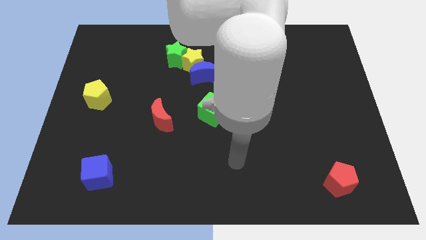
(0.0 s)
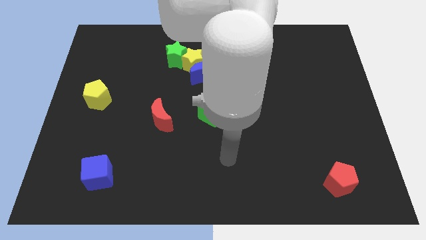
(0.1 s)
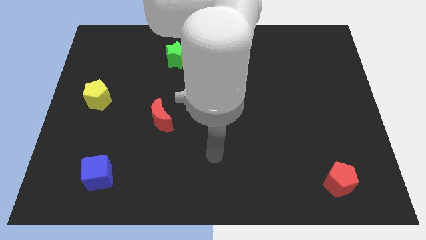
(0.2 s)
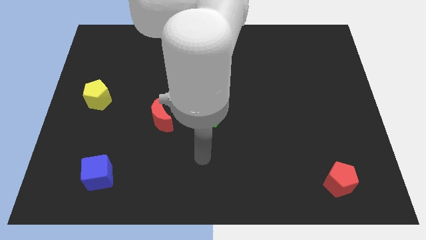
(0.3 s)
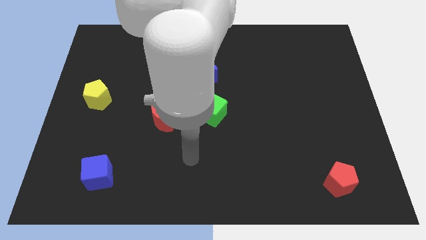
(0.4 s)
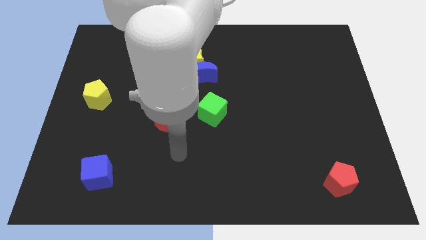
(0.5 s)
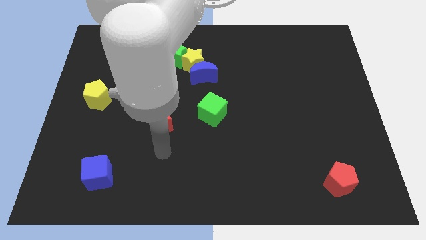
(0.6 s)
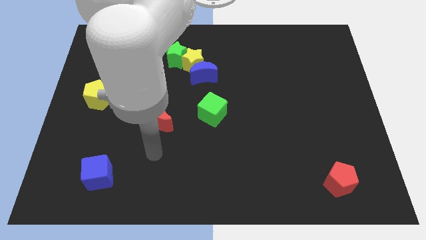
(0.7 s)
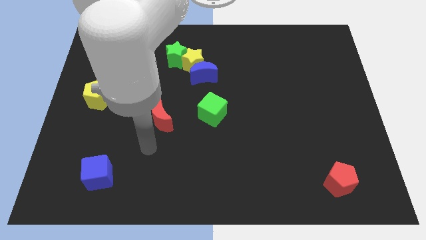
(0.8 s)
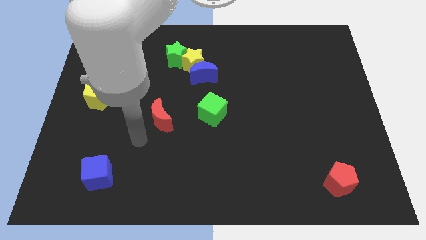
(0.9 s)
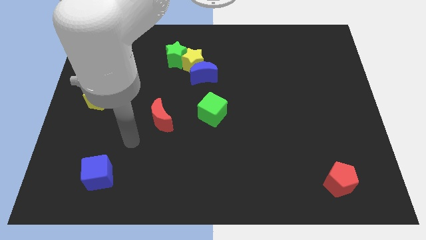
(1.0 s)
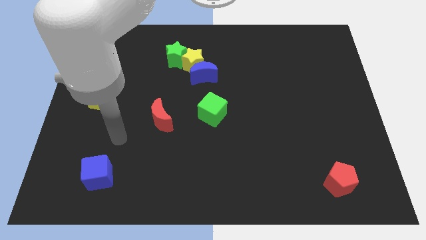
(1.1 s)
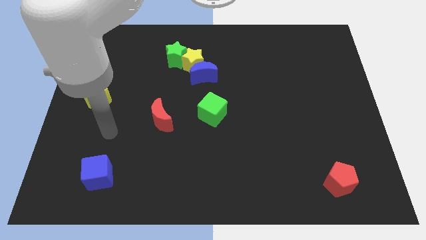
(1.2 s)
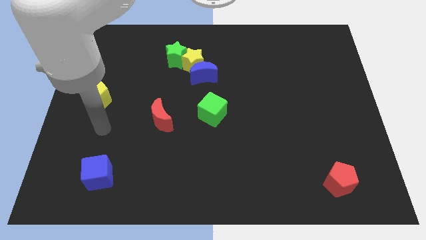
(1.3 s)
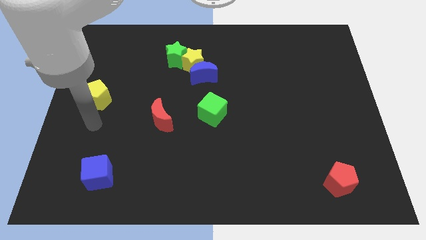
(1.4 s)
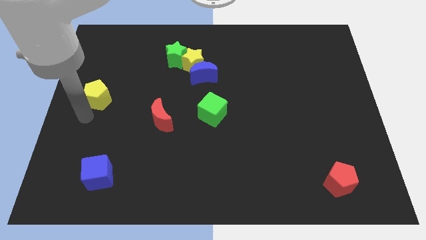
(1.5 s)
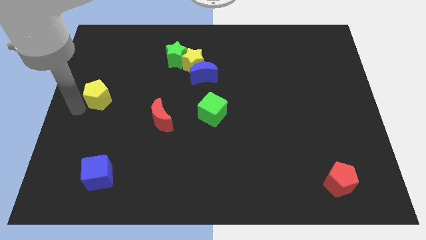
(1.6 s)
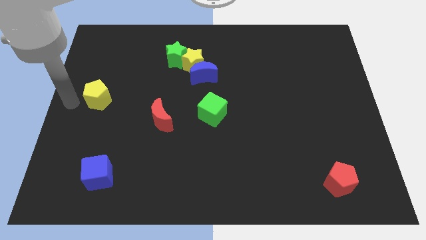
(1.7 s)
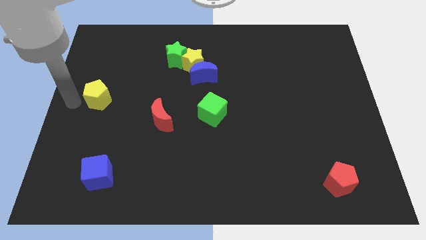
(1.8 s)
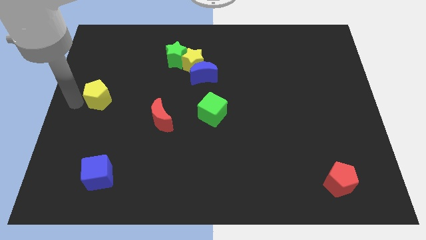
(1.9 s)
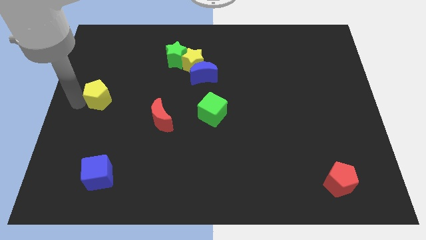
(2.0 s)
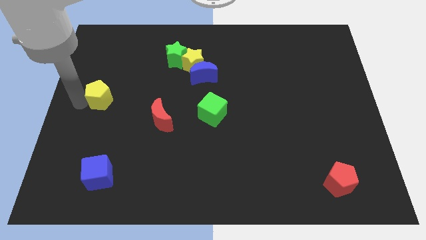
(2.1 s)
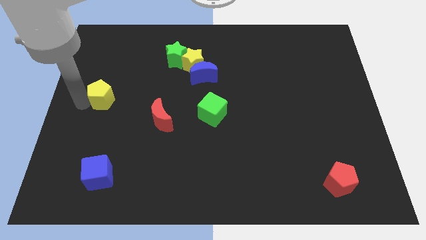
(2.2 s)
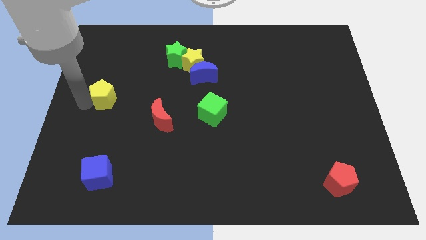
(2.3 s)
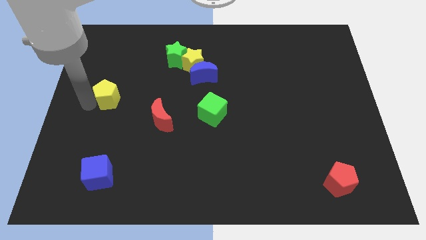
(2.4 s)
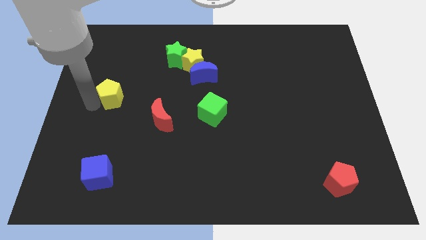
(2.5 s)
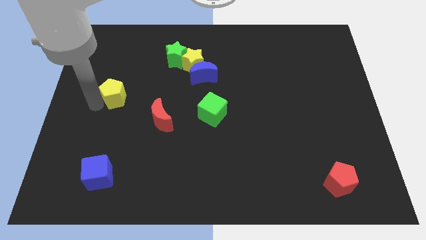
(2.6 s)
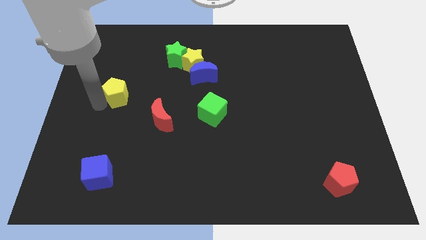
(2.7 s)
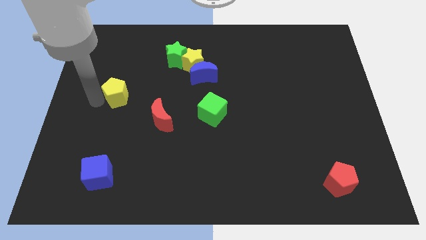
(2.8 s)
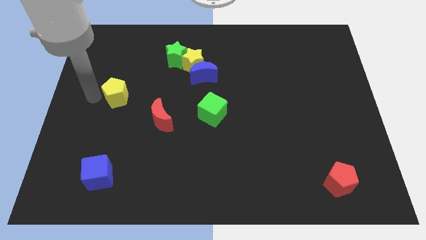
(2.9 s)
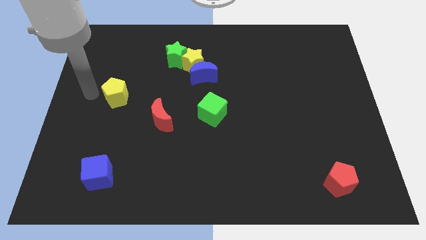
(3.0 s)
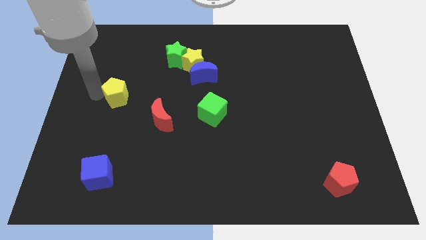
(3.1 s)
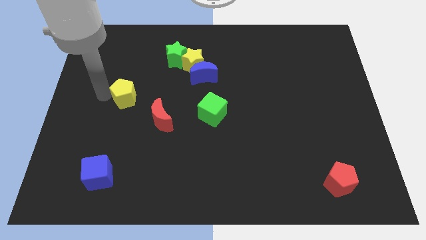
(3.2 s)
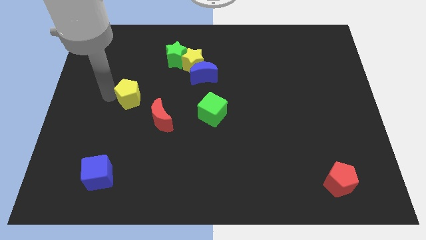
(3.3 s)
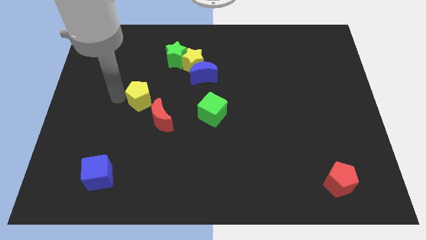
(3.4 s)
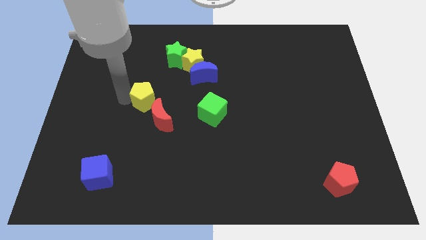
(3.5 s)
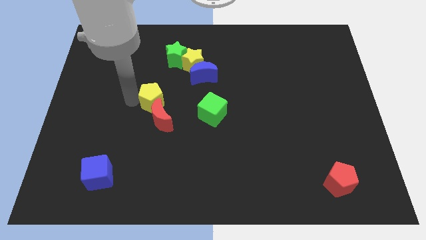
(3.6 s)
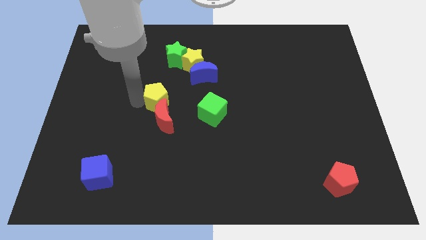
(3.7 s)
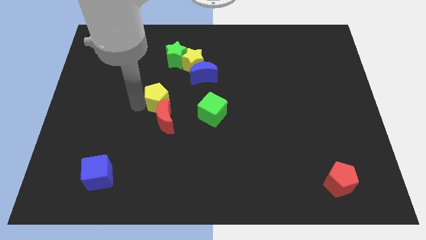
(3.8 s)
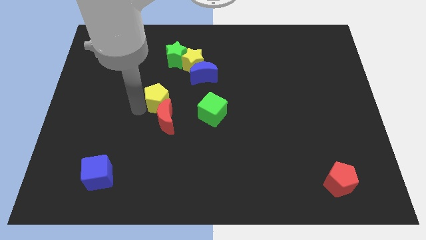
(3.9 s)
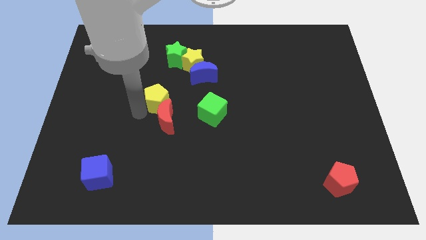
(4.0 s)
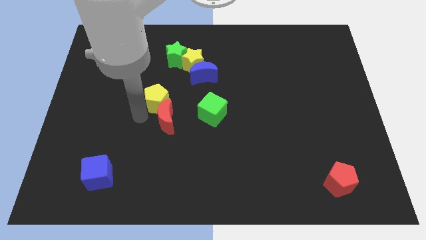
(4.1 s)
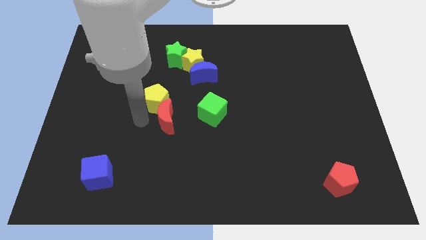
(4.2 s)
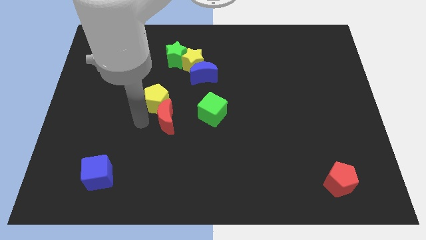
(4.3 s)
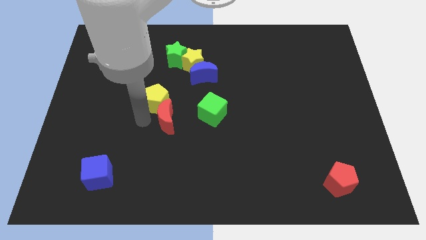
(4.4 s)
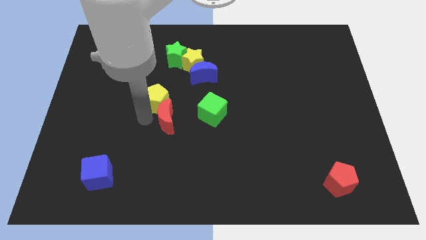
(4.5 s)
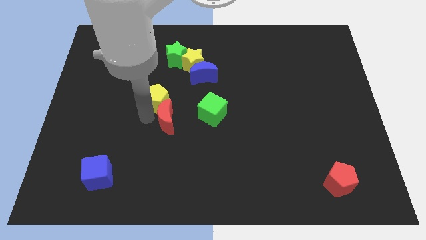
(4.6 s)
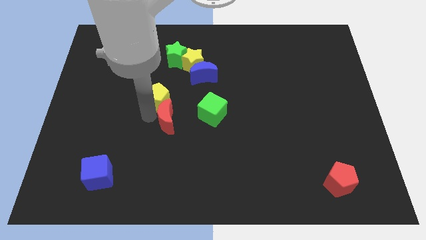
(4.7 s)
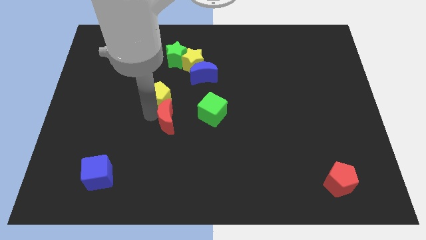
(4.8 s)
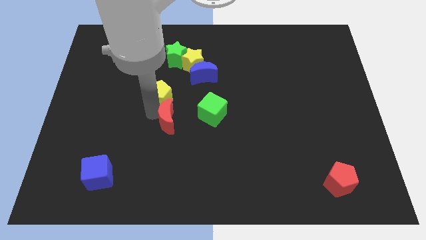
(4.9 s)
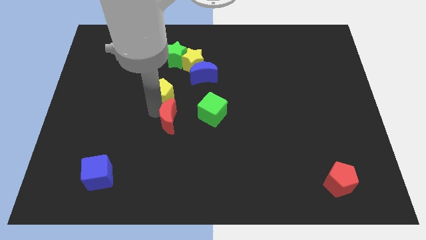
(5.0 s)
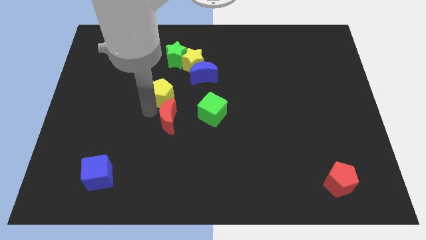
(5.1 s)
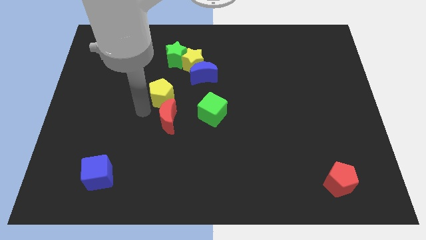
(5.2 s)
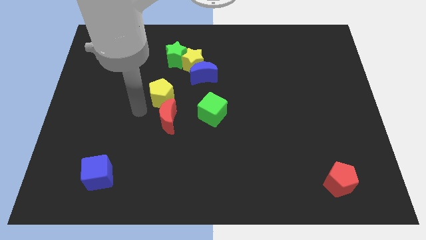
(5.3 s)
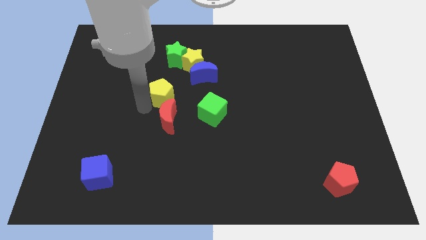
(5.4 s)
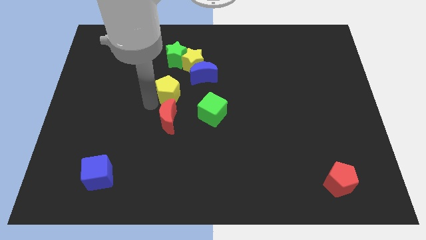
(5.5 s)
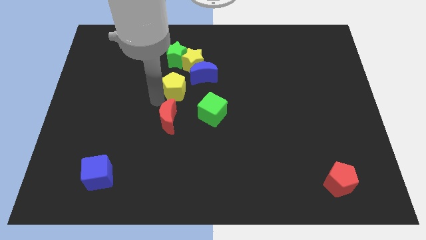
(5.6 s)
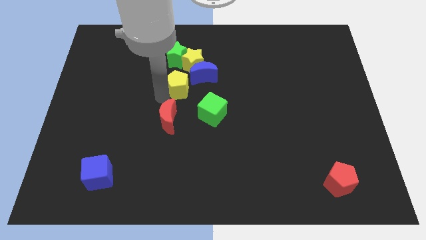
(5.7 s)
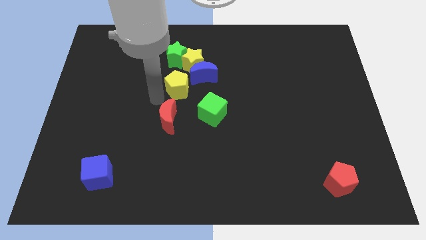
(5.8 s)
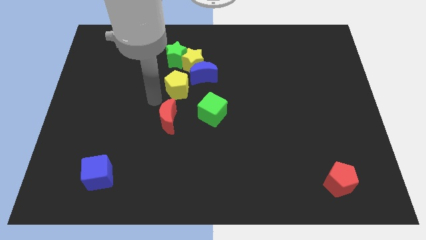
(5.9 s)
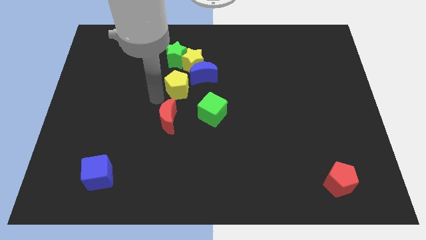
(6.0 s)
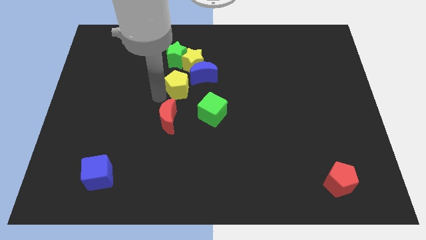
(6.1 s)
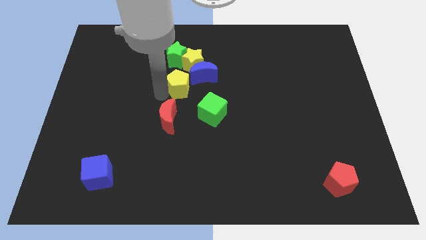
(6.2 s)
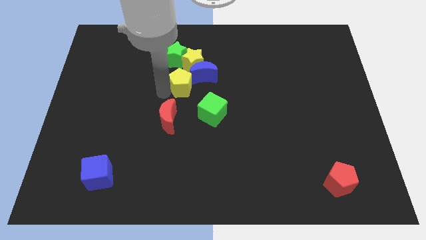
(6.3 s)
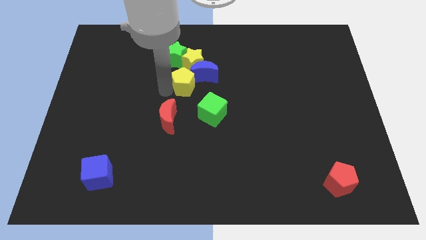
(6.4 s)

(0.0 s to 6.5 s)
slide the yellow pentagon next to the blue moon

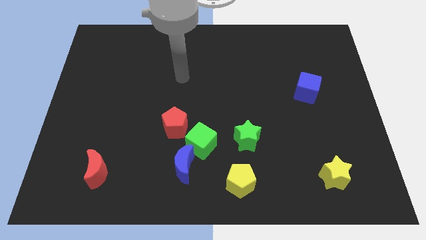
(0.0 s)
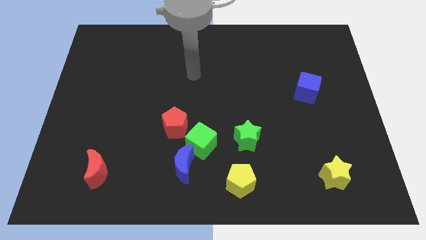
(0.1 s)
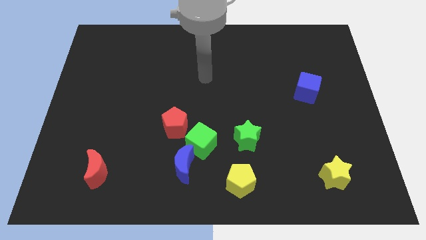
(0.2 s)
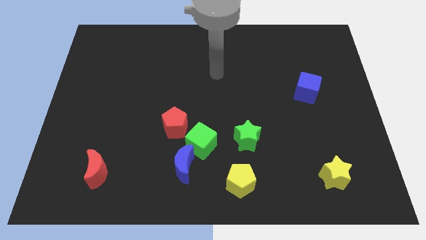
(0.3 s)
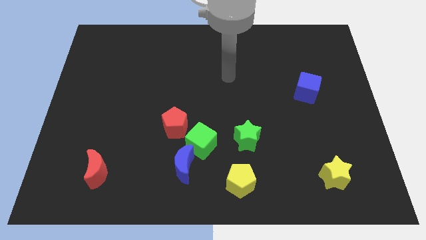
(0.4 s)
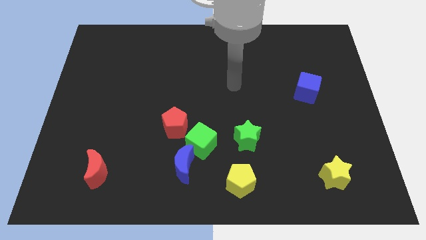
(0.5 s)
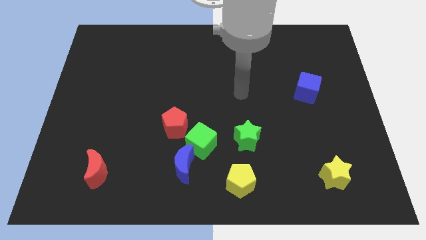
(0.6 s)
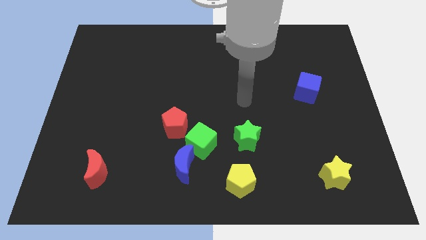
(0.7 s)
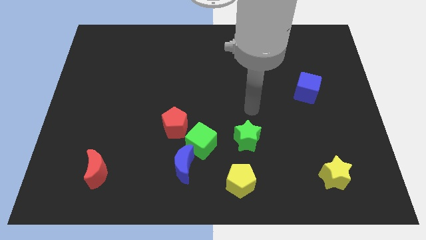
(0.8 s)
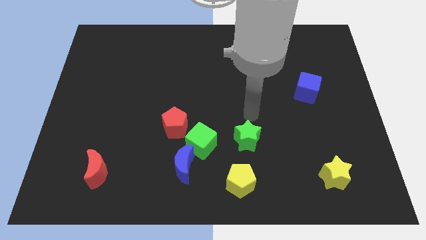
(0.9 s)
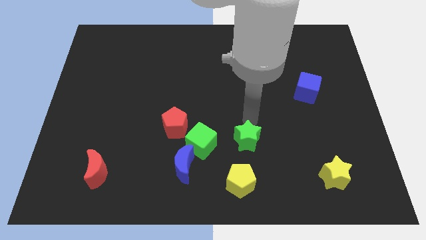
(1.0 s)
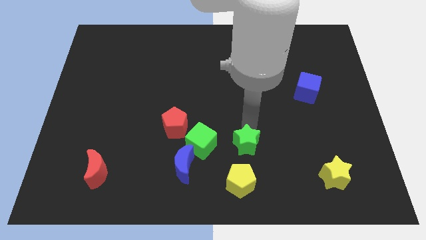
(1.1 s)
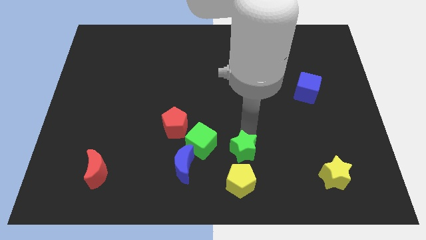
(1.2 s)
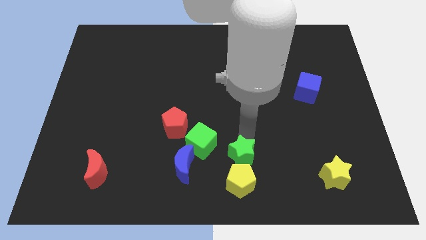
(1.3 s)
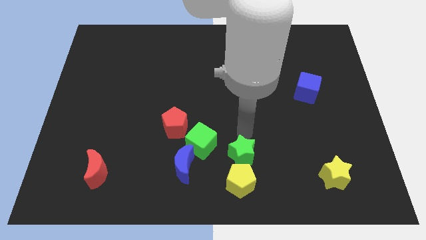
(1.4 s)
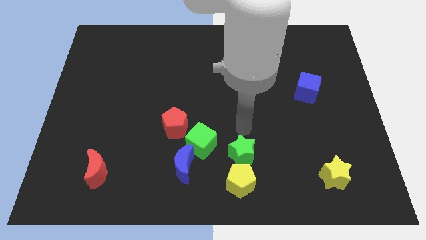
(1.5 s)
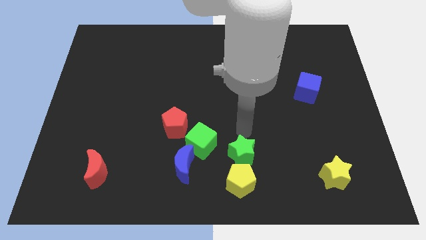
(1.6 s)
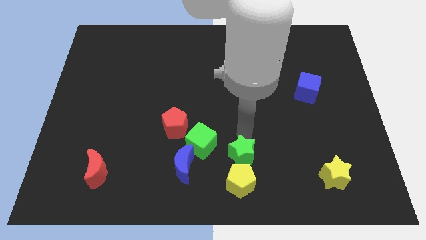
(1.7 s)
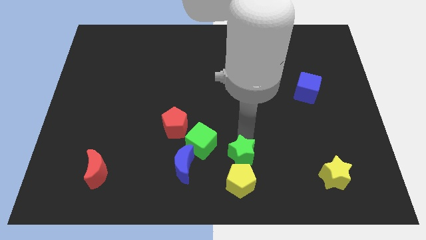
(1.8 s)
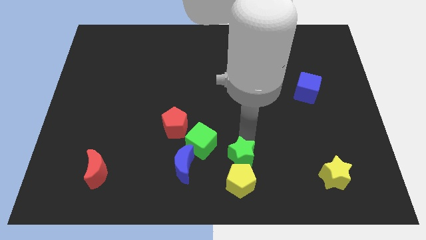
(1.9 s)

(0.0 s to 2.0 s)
push the green star to the yellow pentagon
